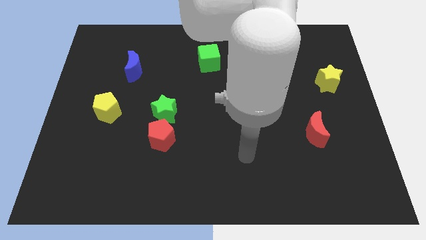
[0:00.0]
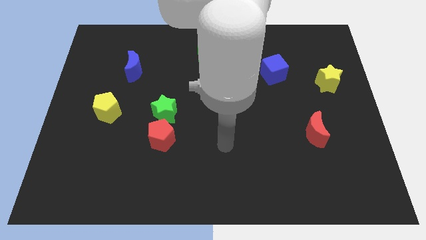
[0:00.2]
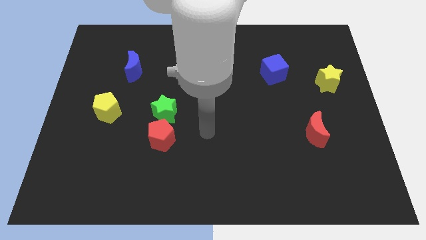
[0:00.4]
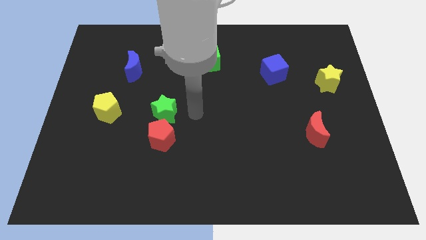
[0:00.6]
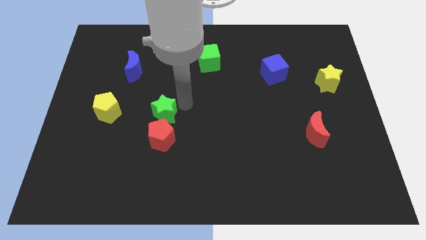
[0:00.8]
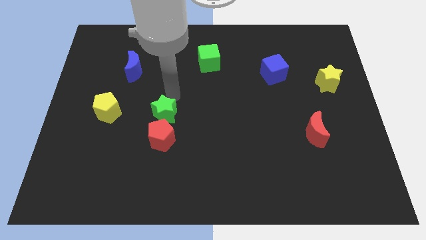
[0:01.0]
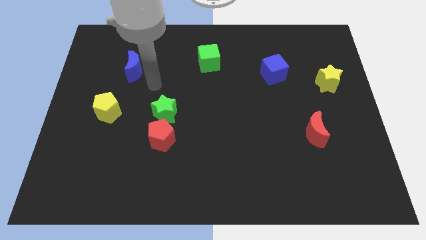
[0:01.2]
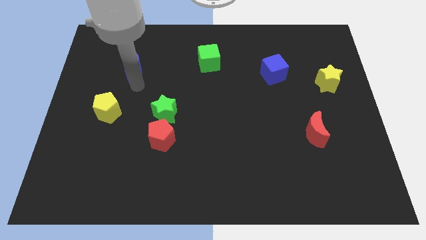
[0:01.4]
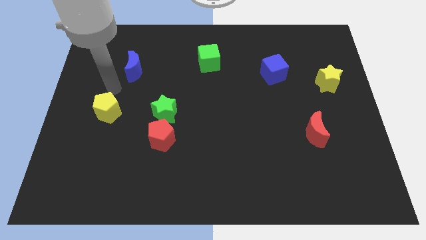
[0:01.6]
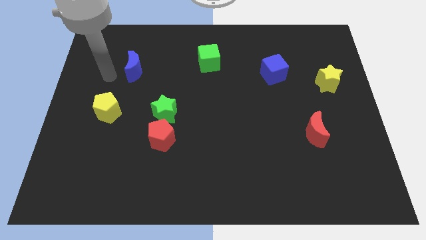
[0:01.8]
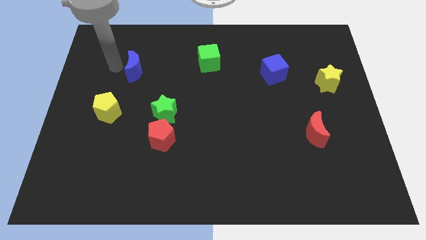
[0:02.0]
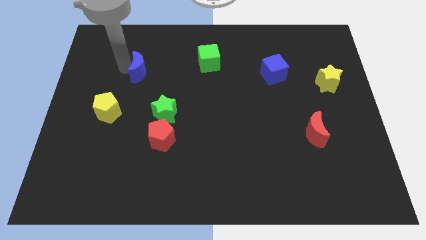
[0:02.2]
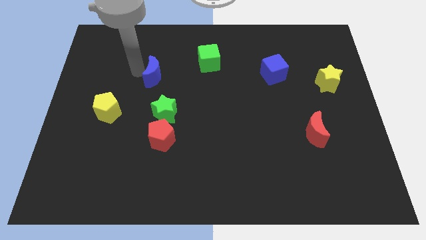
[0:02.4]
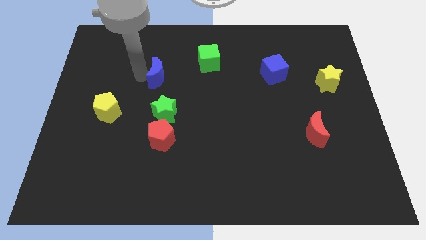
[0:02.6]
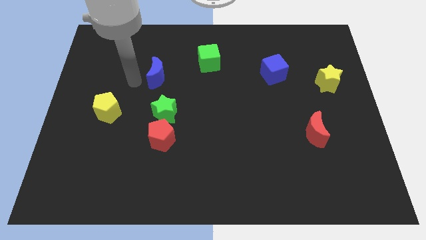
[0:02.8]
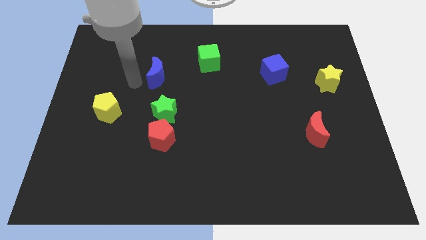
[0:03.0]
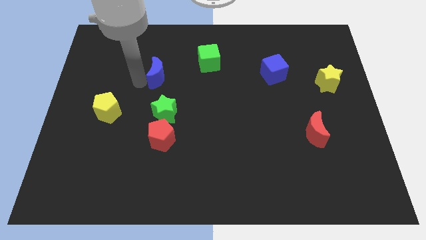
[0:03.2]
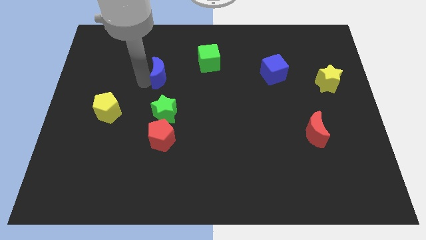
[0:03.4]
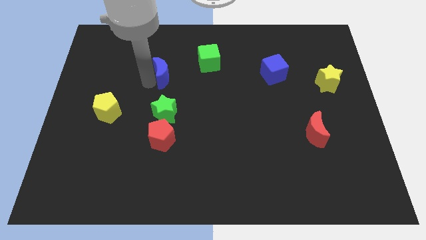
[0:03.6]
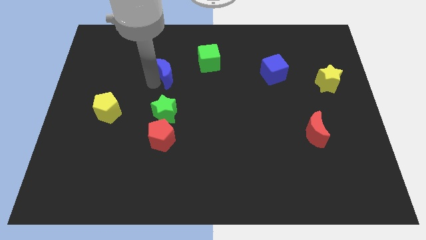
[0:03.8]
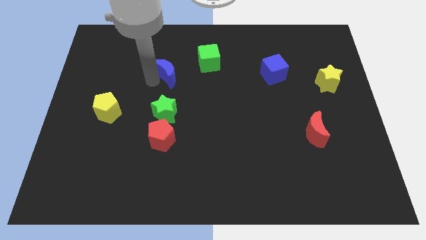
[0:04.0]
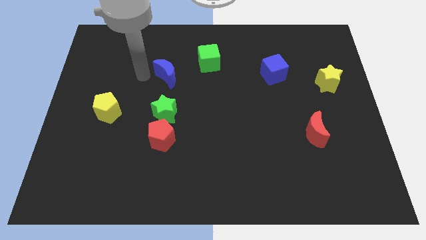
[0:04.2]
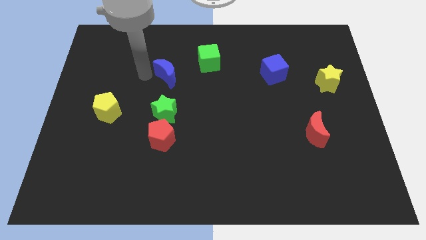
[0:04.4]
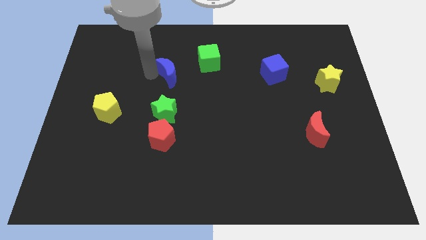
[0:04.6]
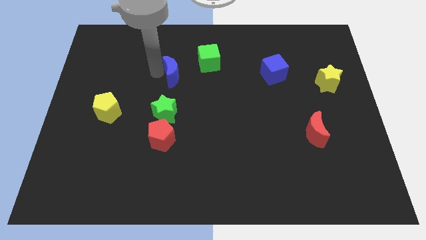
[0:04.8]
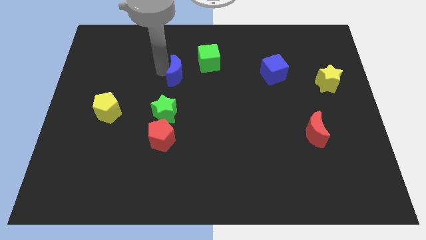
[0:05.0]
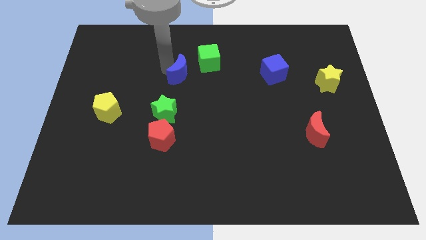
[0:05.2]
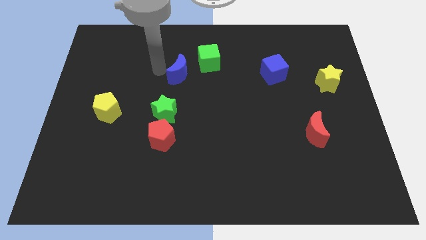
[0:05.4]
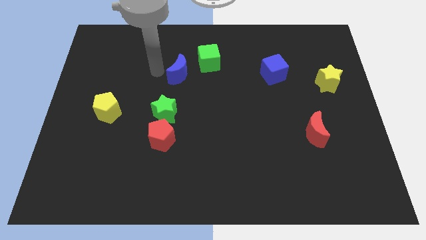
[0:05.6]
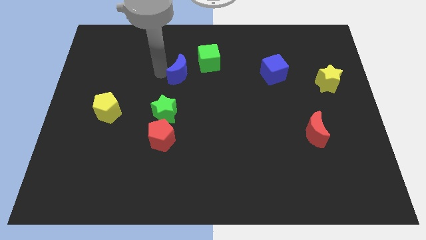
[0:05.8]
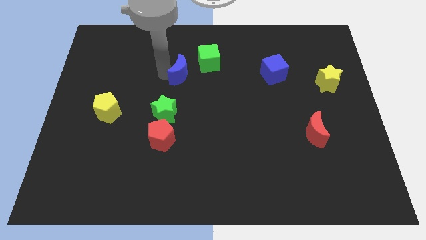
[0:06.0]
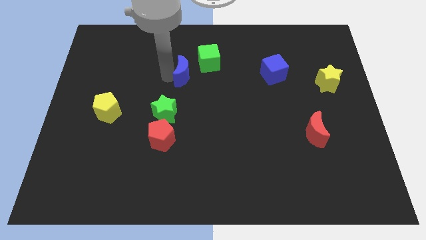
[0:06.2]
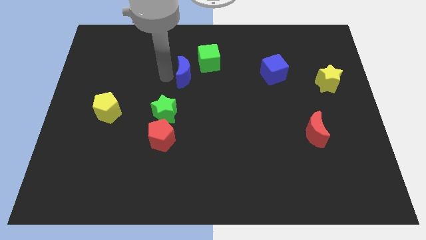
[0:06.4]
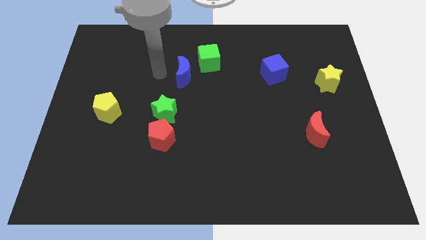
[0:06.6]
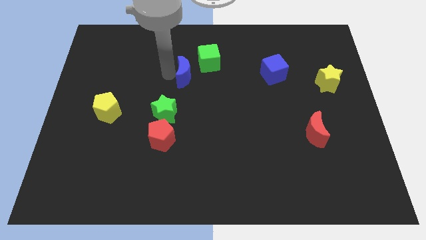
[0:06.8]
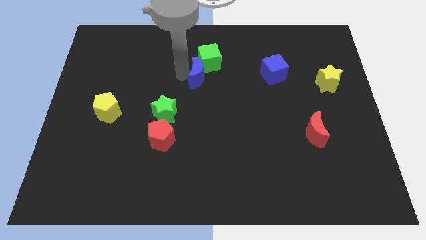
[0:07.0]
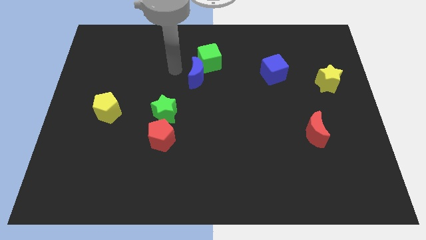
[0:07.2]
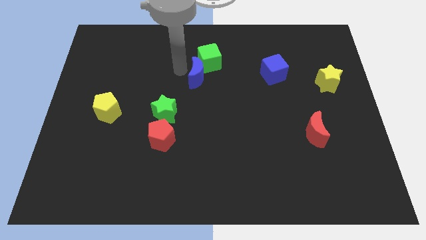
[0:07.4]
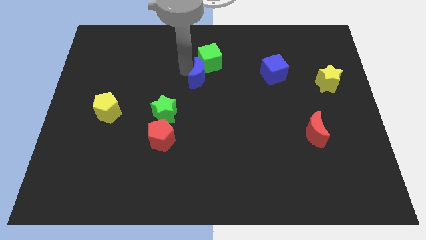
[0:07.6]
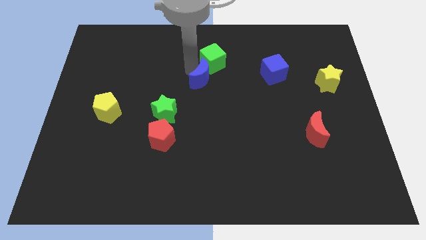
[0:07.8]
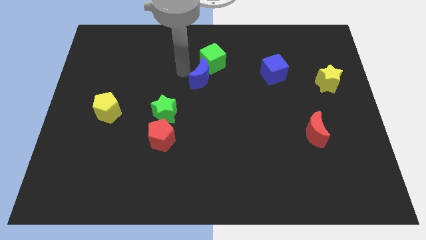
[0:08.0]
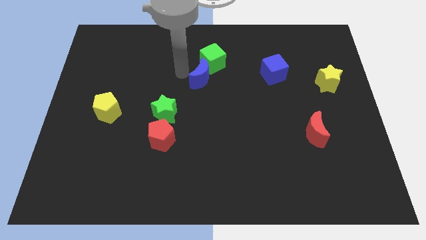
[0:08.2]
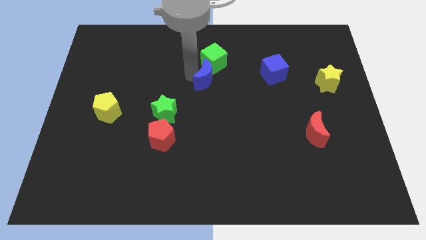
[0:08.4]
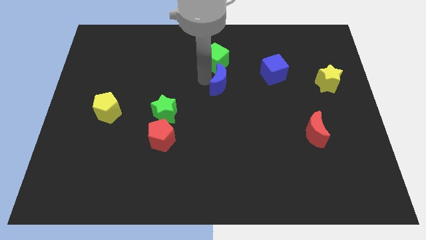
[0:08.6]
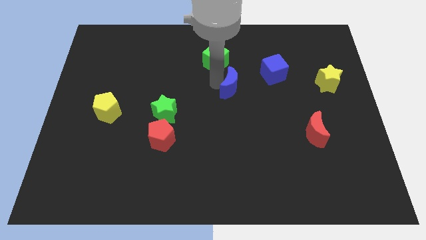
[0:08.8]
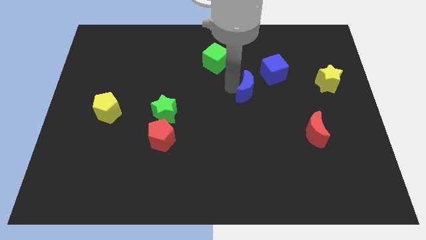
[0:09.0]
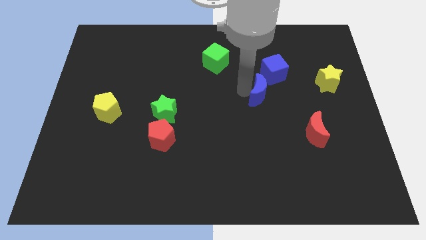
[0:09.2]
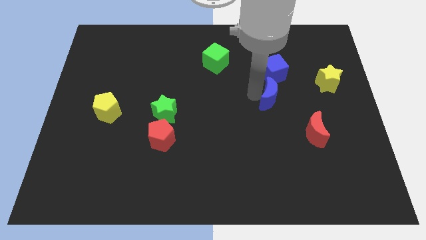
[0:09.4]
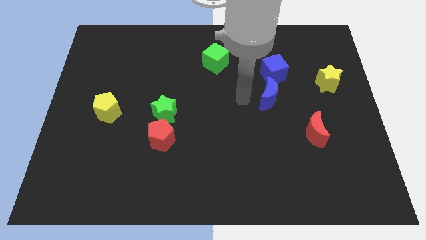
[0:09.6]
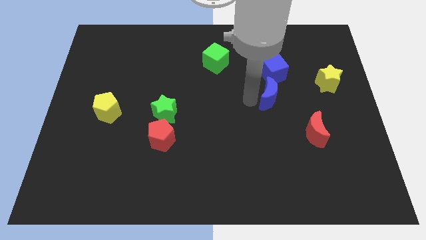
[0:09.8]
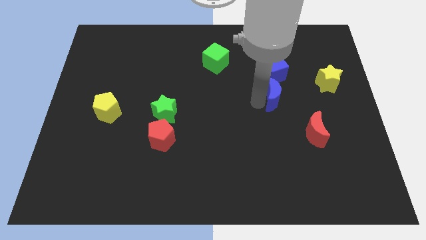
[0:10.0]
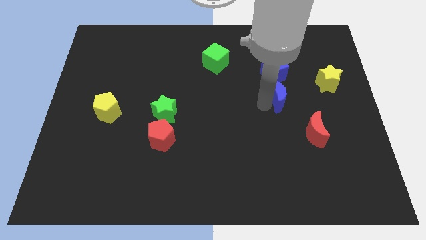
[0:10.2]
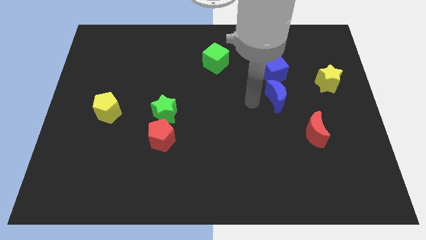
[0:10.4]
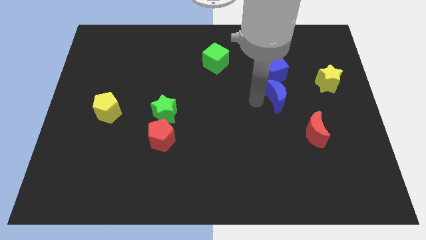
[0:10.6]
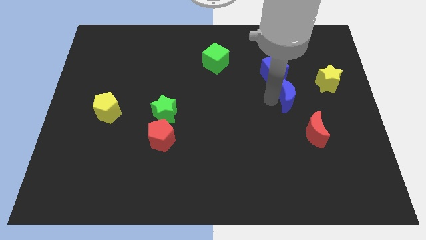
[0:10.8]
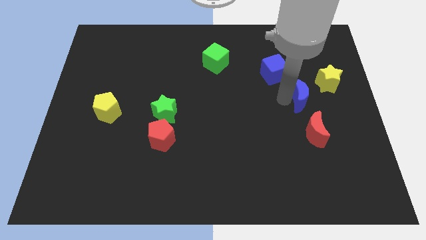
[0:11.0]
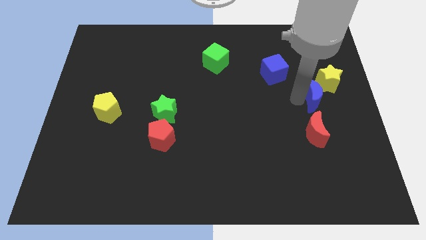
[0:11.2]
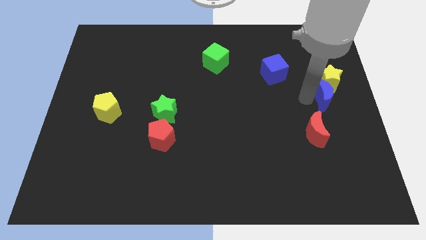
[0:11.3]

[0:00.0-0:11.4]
push the blue moon to the right side of the board

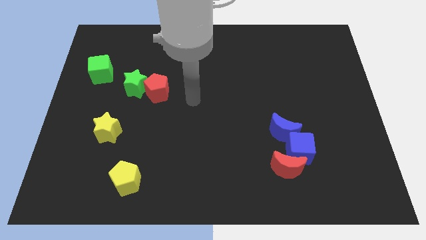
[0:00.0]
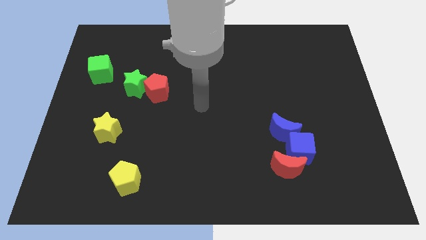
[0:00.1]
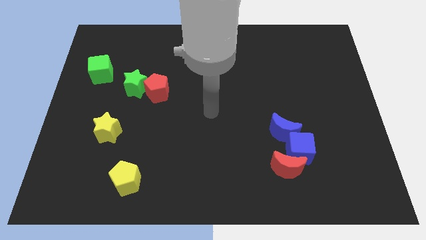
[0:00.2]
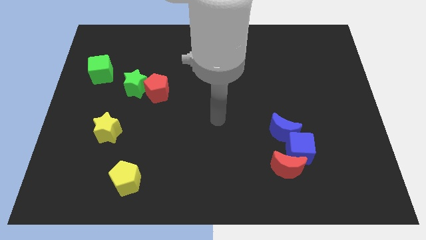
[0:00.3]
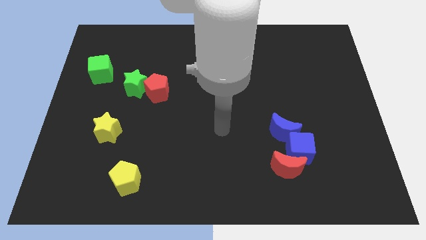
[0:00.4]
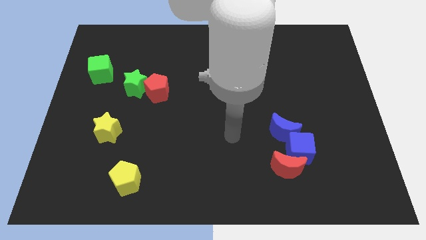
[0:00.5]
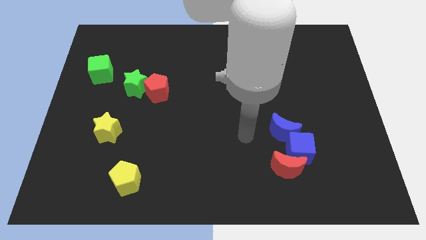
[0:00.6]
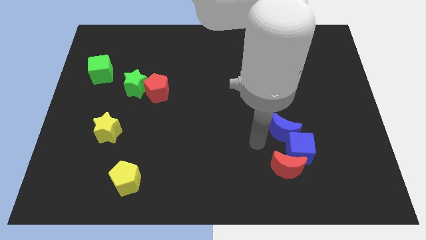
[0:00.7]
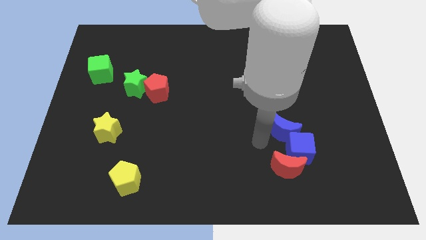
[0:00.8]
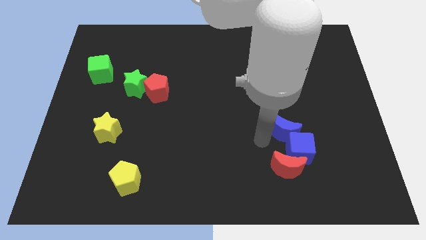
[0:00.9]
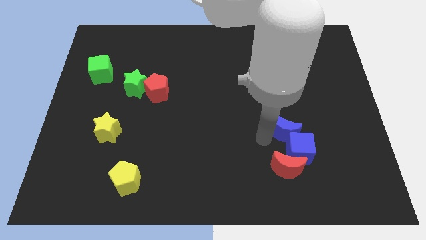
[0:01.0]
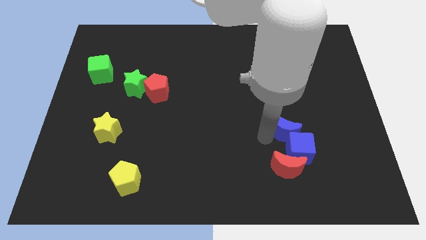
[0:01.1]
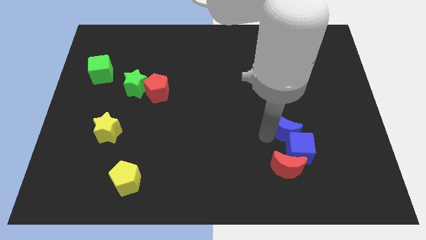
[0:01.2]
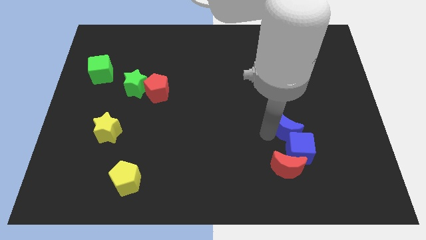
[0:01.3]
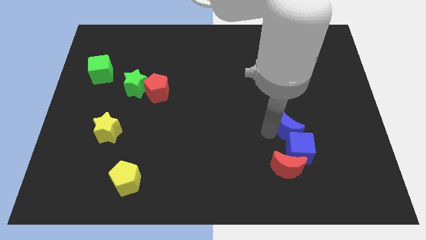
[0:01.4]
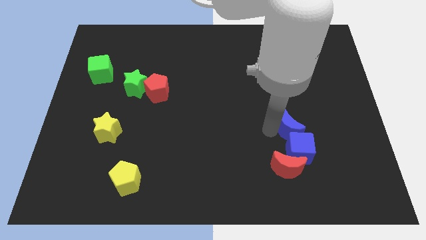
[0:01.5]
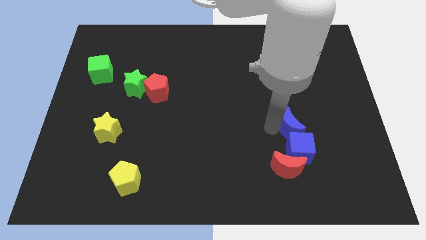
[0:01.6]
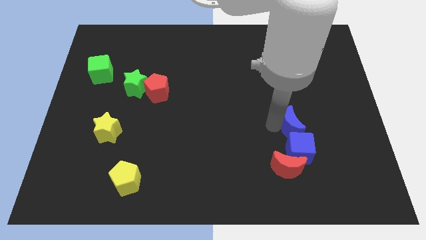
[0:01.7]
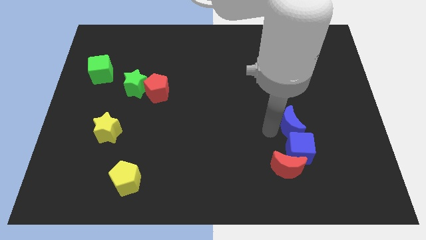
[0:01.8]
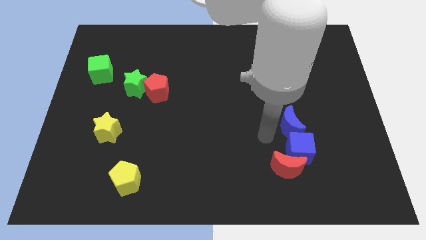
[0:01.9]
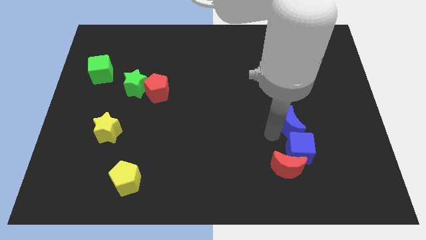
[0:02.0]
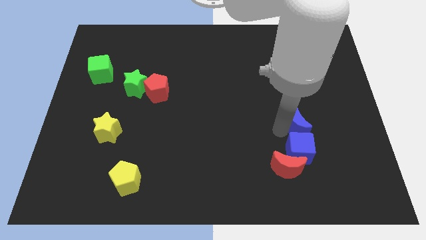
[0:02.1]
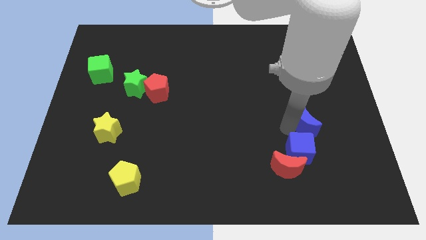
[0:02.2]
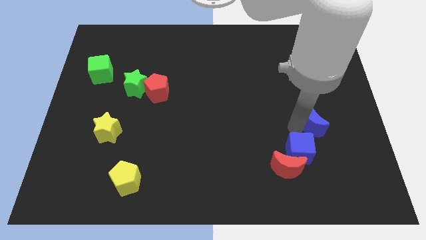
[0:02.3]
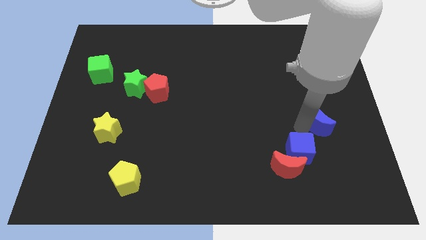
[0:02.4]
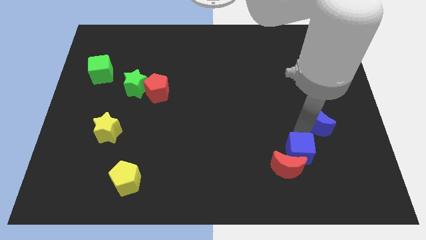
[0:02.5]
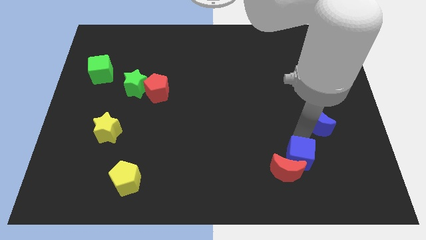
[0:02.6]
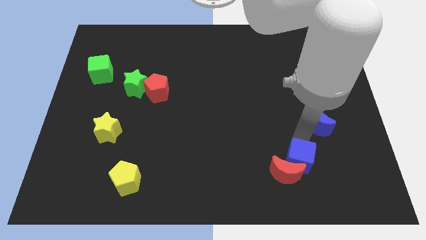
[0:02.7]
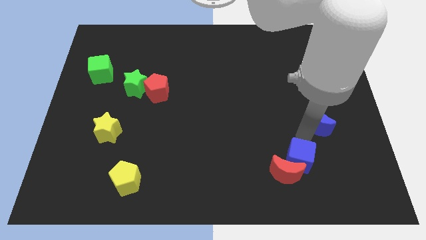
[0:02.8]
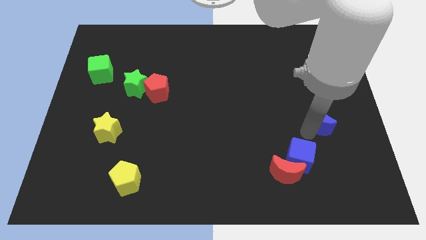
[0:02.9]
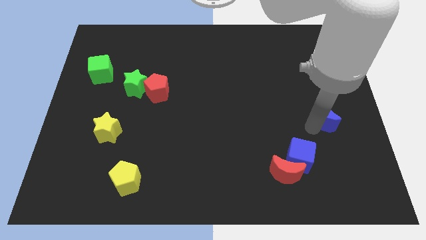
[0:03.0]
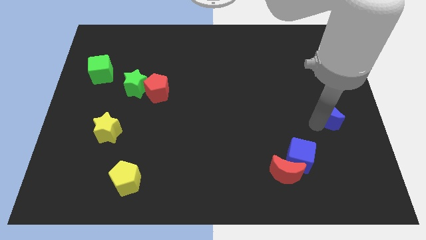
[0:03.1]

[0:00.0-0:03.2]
put the blue moon to the right side of the board
